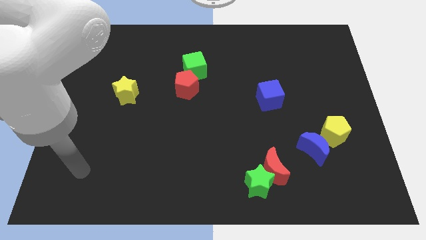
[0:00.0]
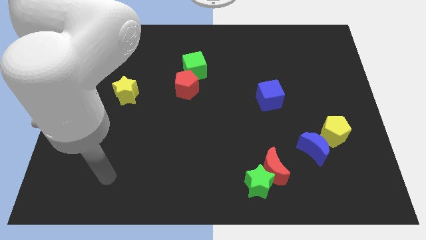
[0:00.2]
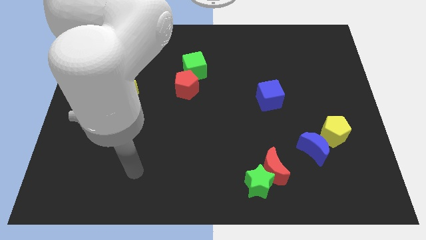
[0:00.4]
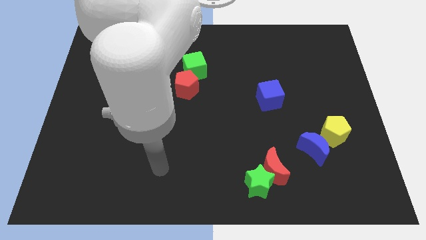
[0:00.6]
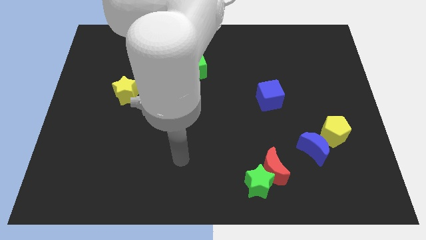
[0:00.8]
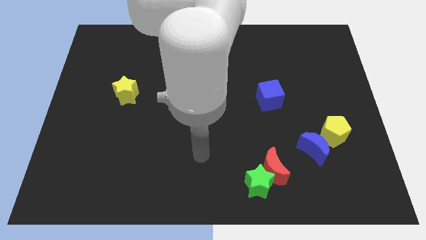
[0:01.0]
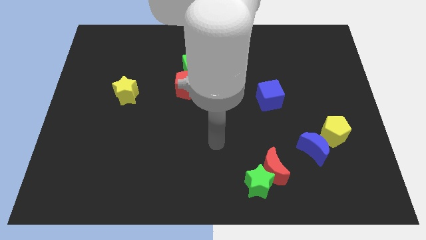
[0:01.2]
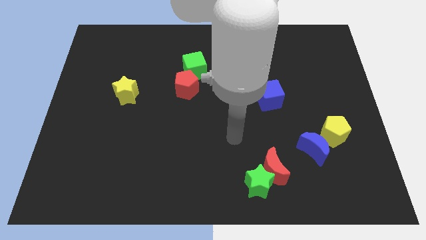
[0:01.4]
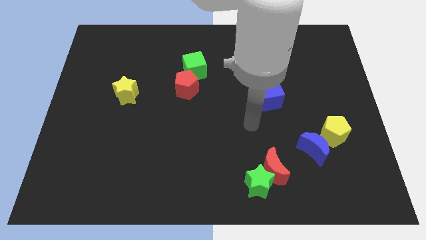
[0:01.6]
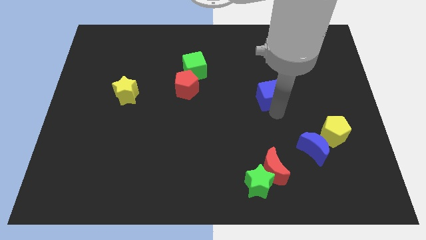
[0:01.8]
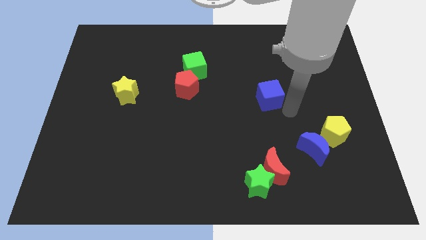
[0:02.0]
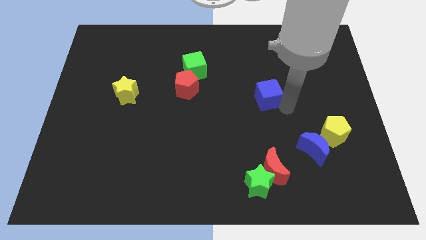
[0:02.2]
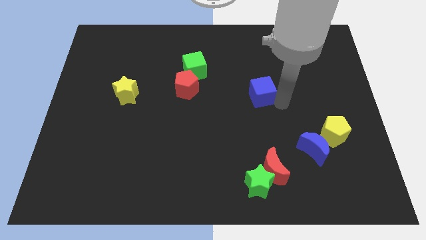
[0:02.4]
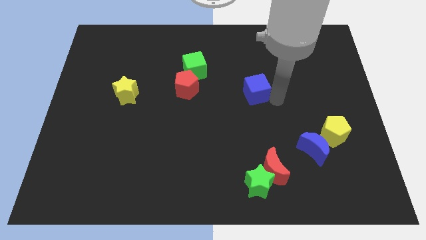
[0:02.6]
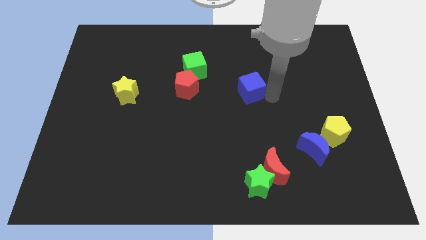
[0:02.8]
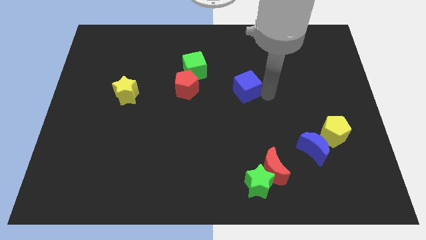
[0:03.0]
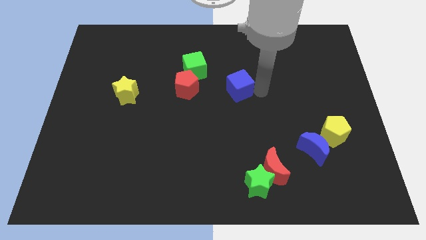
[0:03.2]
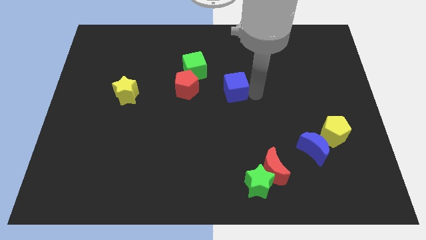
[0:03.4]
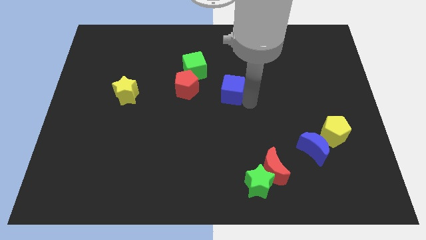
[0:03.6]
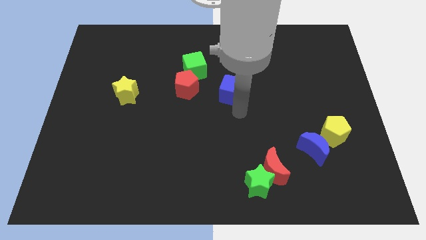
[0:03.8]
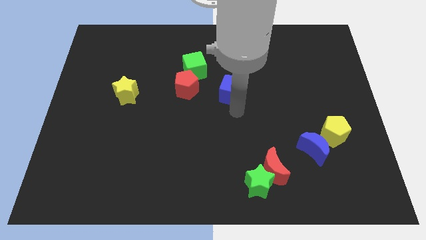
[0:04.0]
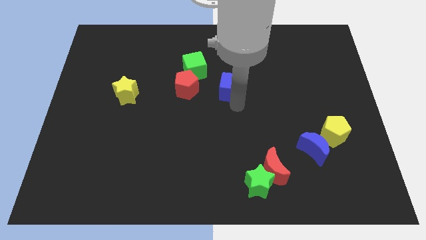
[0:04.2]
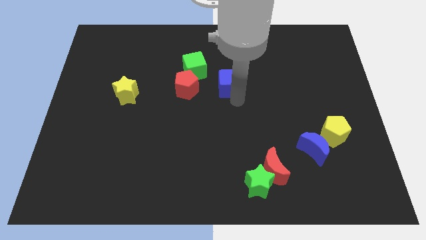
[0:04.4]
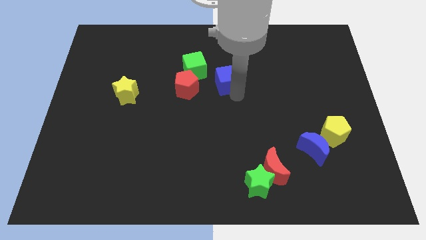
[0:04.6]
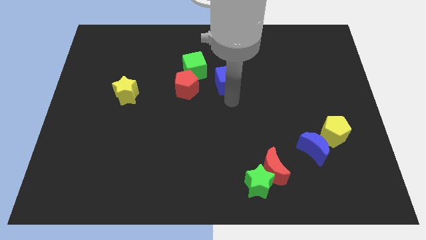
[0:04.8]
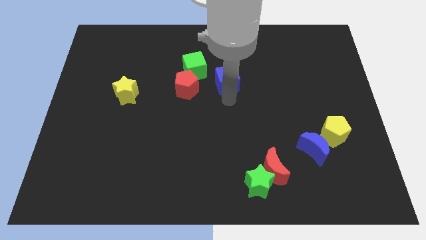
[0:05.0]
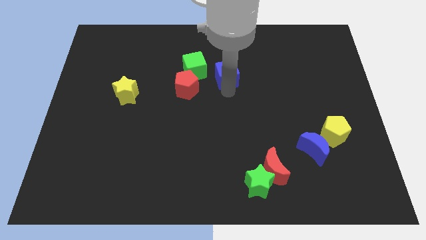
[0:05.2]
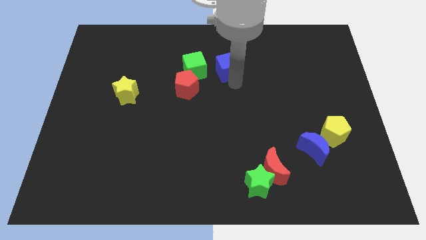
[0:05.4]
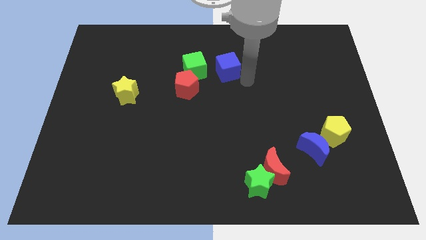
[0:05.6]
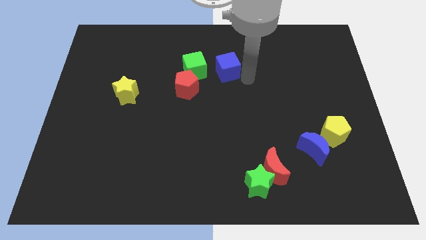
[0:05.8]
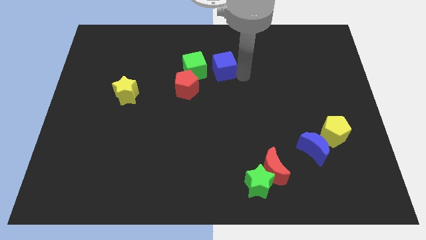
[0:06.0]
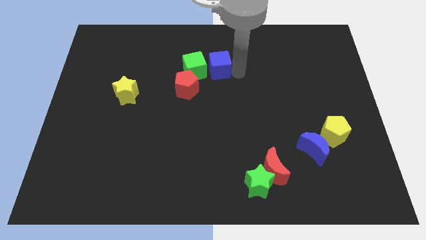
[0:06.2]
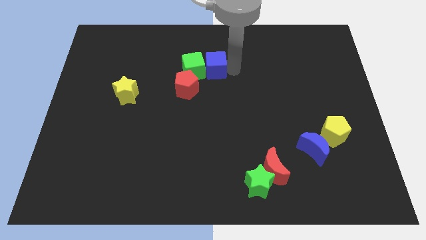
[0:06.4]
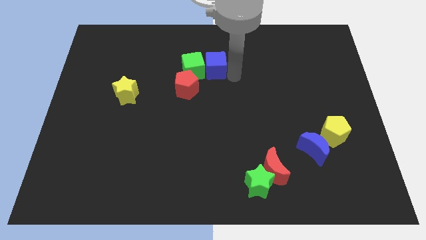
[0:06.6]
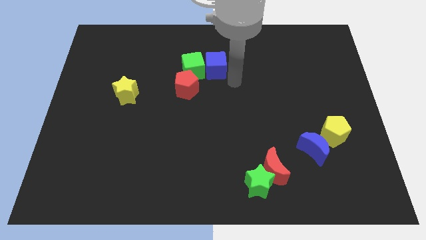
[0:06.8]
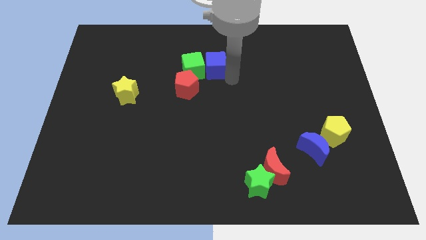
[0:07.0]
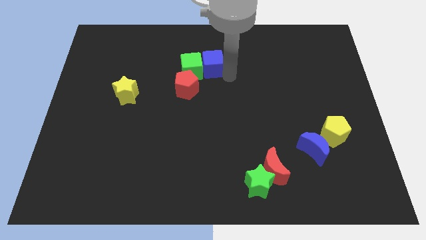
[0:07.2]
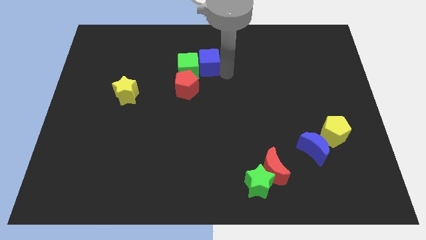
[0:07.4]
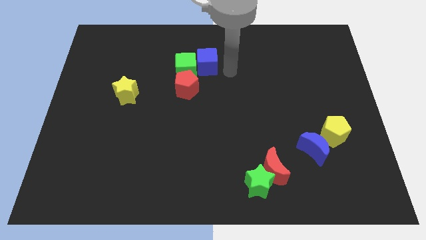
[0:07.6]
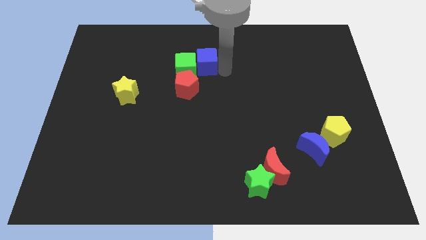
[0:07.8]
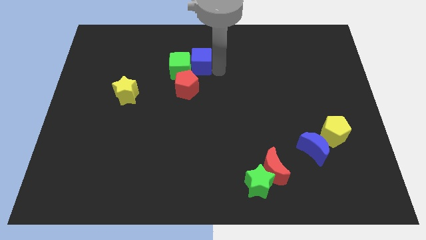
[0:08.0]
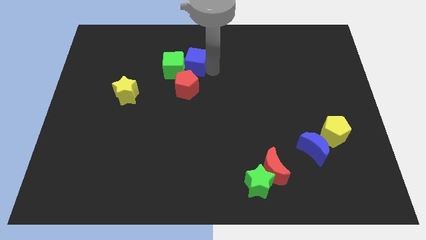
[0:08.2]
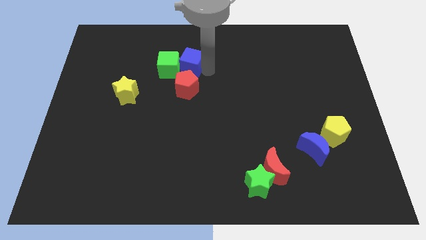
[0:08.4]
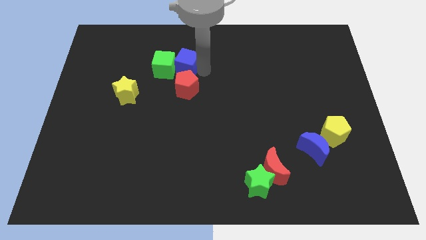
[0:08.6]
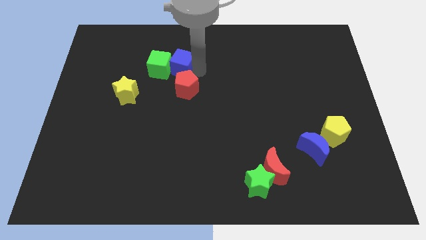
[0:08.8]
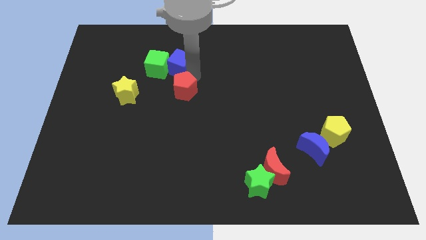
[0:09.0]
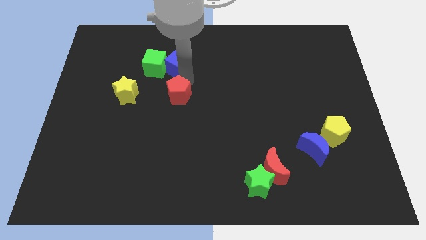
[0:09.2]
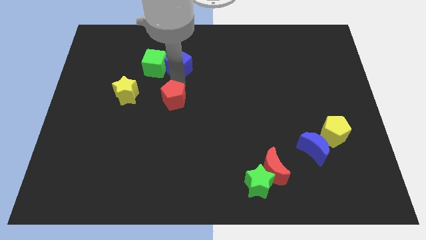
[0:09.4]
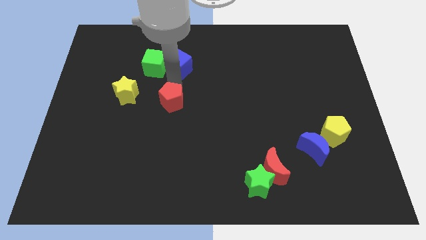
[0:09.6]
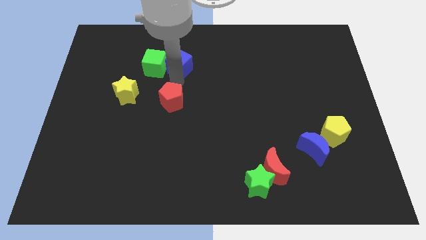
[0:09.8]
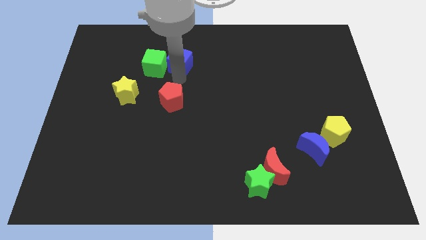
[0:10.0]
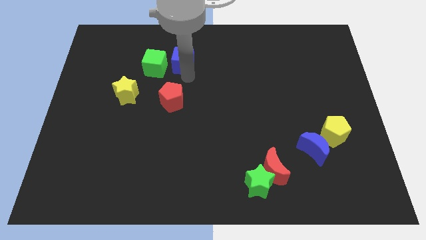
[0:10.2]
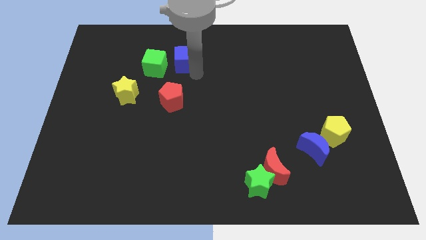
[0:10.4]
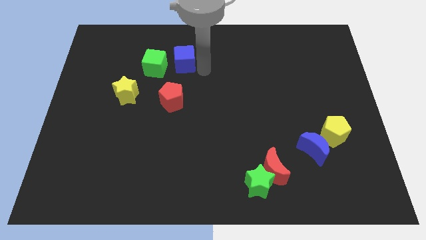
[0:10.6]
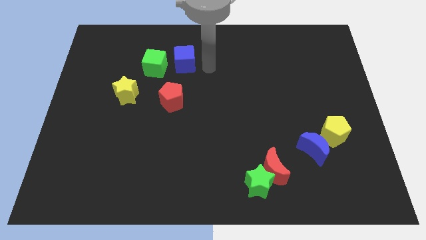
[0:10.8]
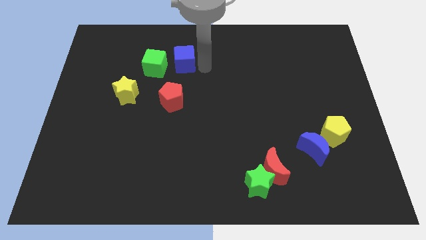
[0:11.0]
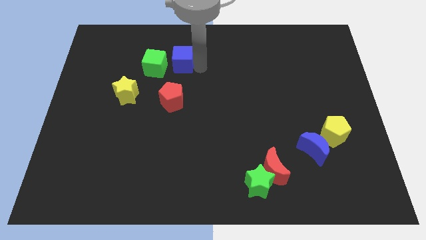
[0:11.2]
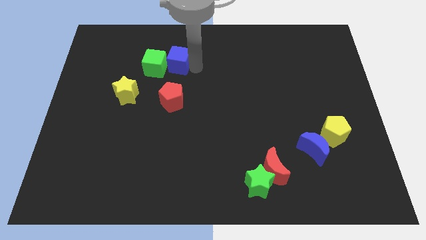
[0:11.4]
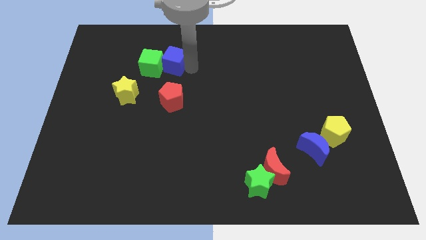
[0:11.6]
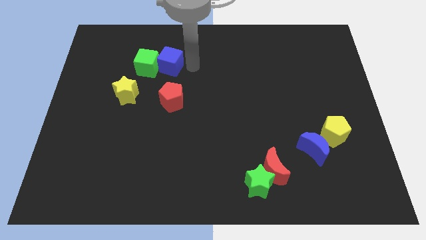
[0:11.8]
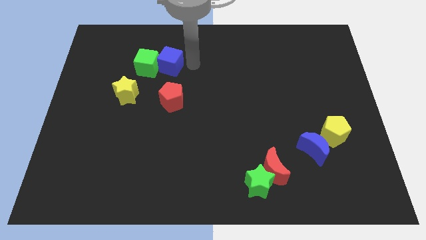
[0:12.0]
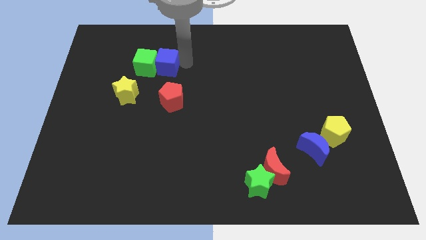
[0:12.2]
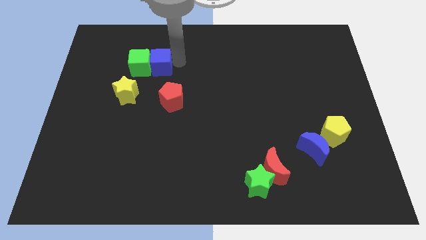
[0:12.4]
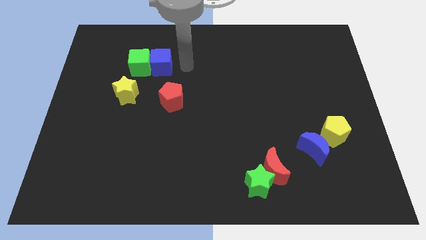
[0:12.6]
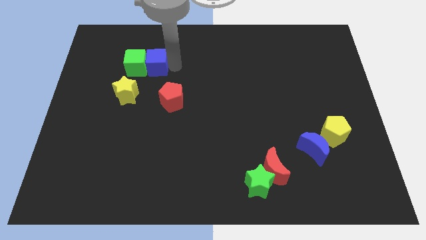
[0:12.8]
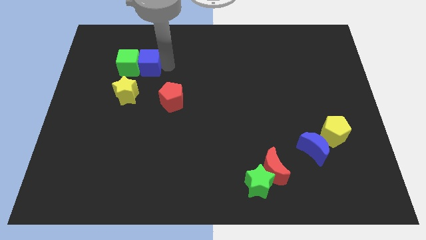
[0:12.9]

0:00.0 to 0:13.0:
slide the blue cube to the top of the yellow star

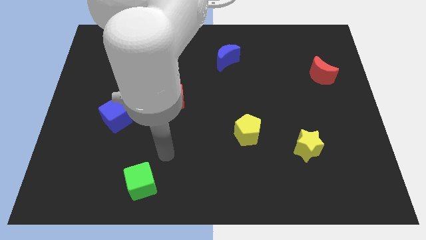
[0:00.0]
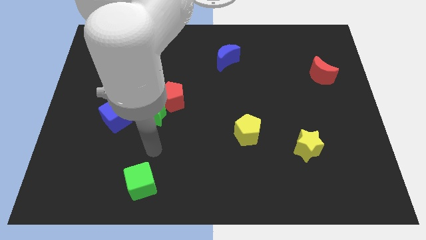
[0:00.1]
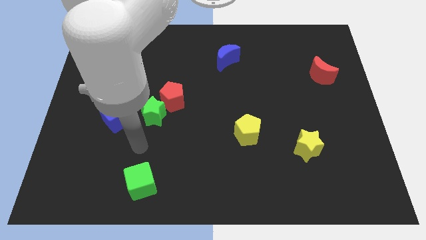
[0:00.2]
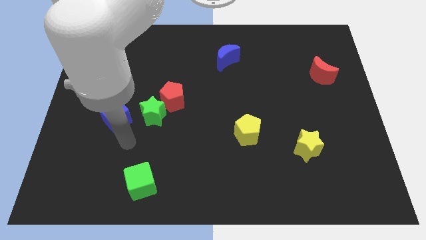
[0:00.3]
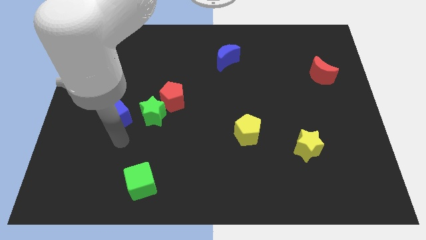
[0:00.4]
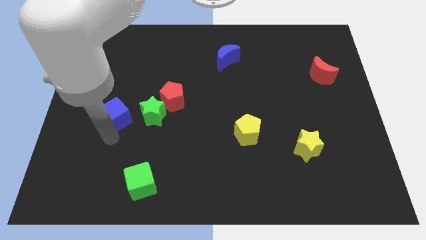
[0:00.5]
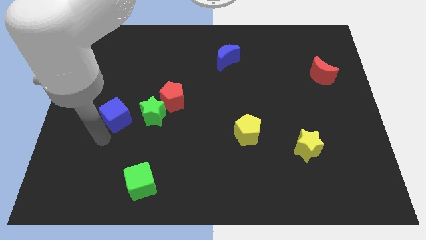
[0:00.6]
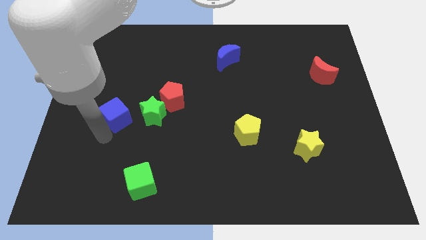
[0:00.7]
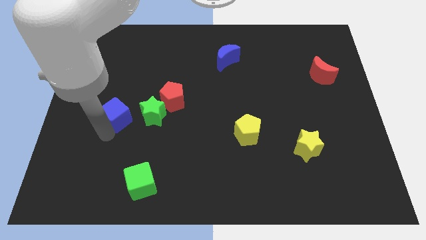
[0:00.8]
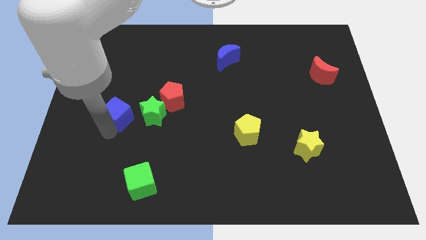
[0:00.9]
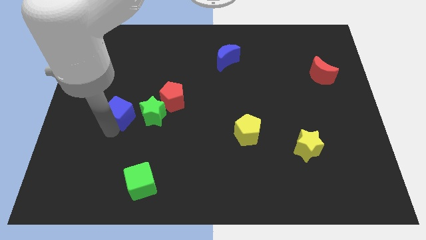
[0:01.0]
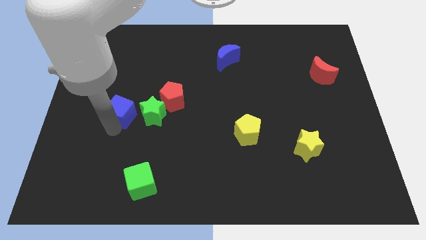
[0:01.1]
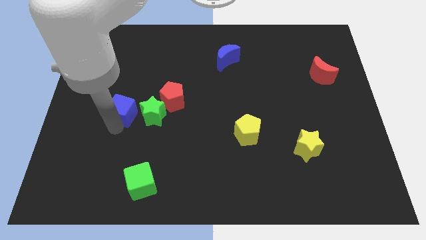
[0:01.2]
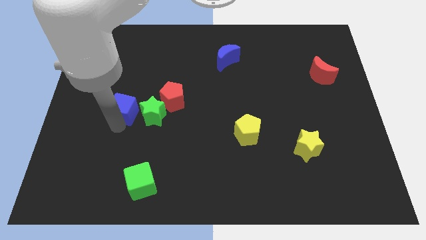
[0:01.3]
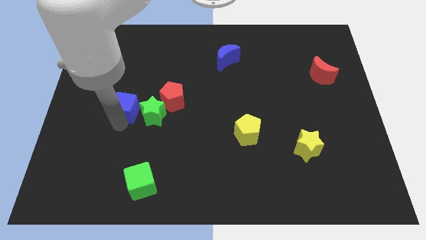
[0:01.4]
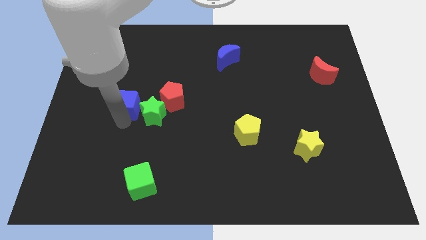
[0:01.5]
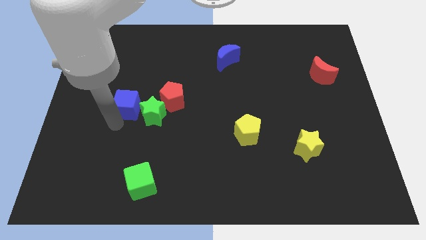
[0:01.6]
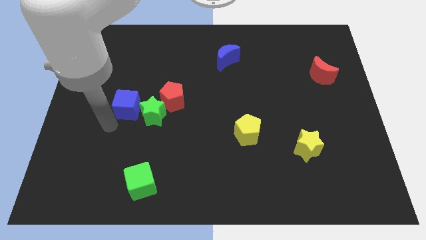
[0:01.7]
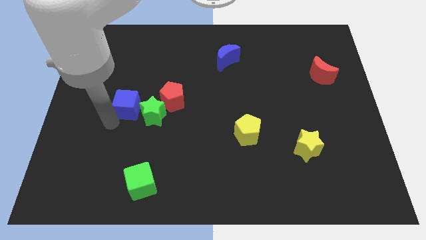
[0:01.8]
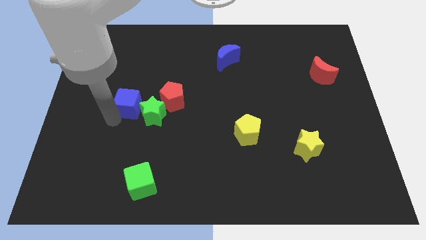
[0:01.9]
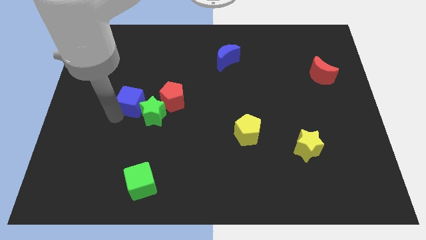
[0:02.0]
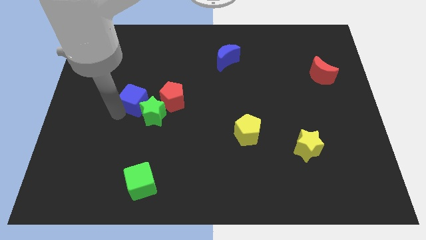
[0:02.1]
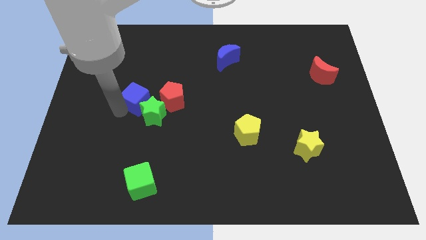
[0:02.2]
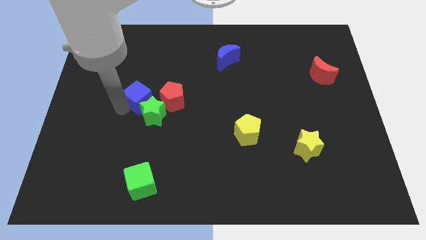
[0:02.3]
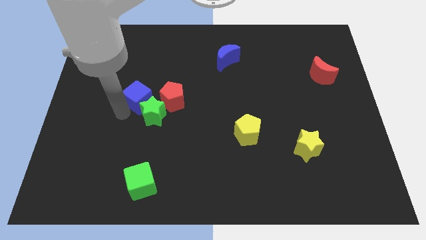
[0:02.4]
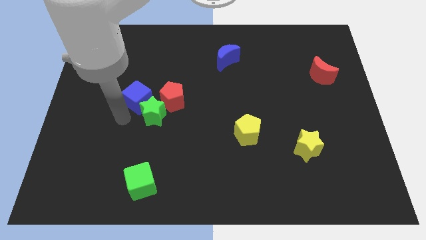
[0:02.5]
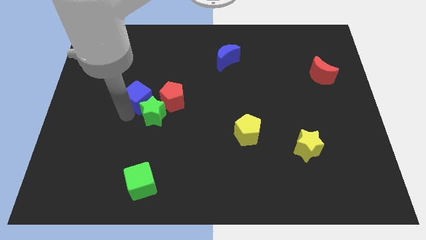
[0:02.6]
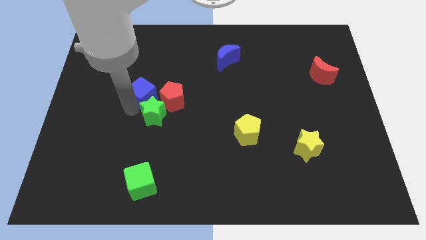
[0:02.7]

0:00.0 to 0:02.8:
push the blue cube to the top left of the red pentagon
